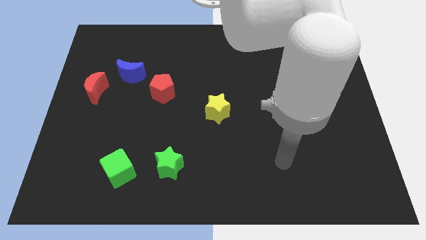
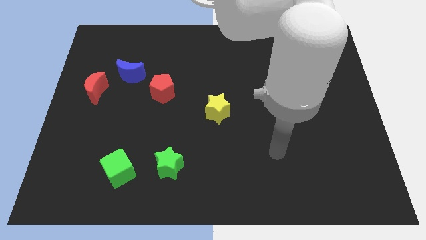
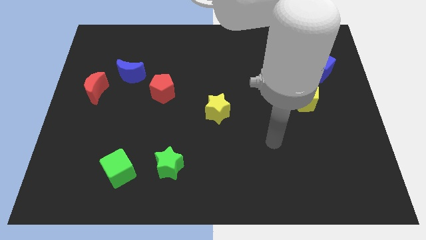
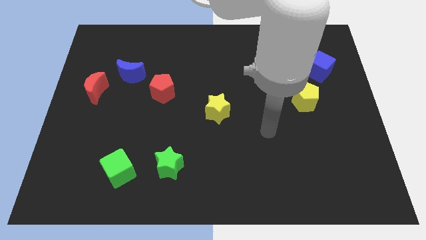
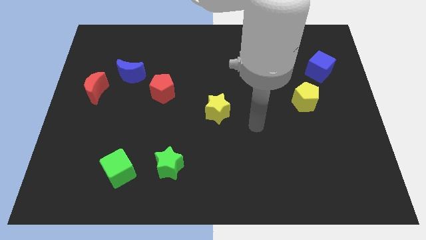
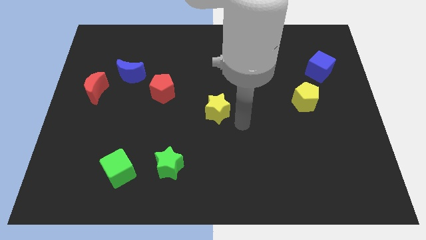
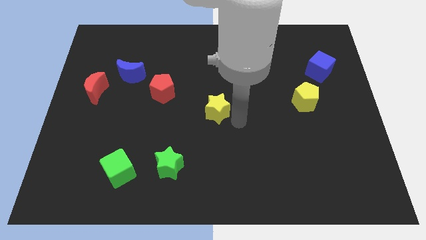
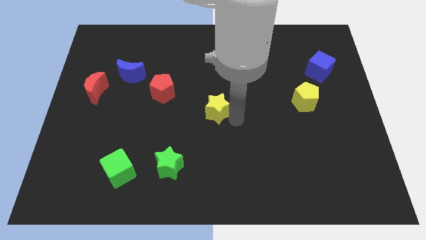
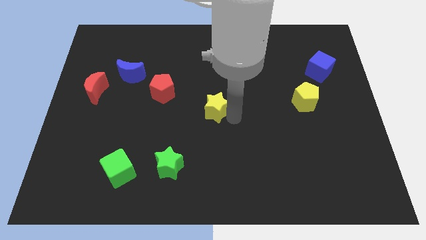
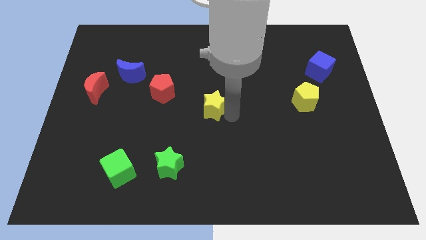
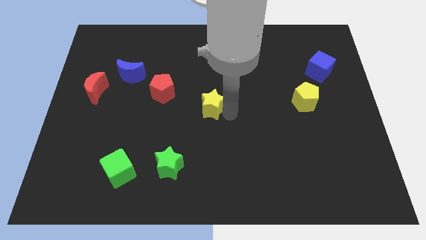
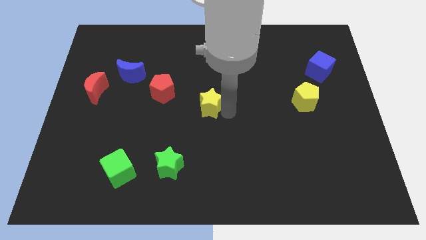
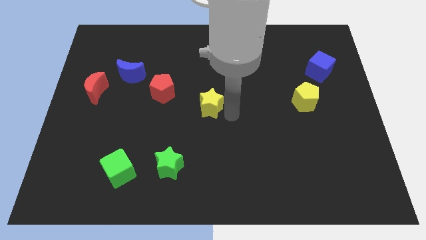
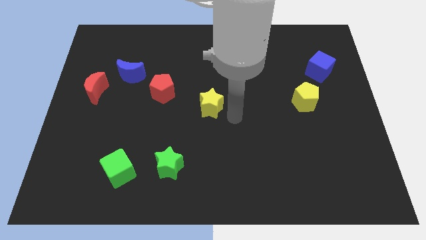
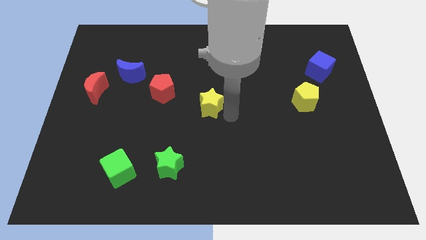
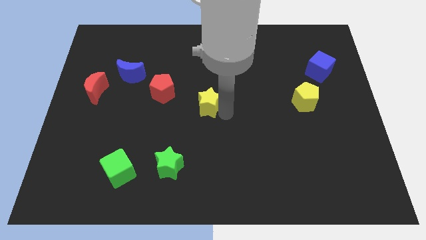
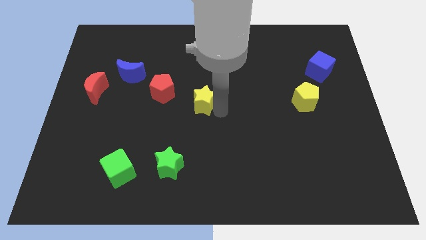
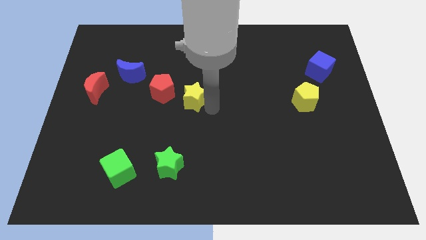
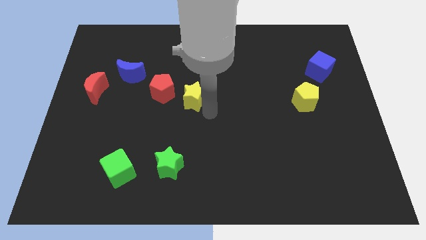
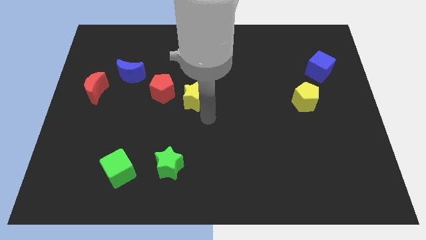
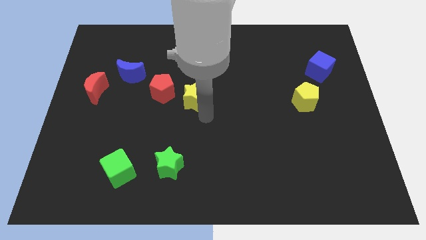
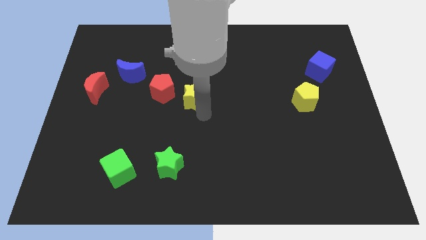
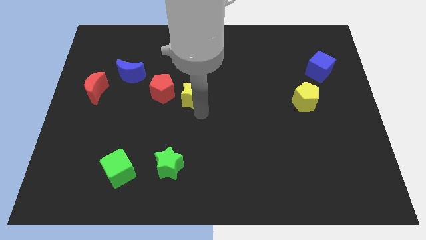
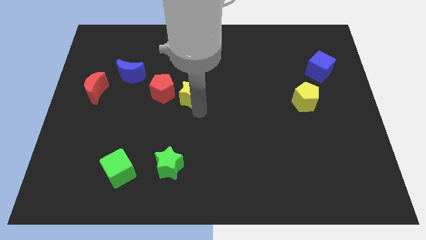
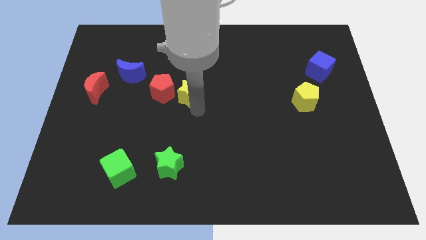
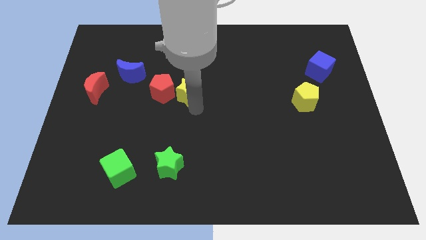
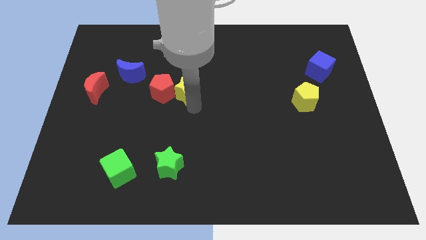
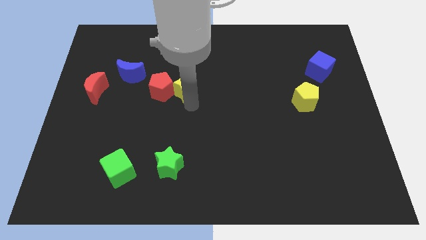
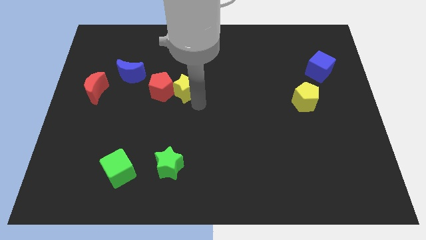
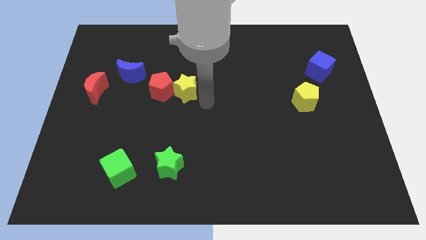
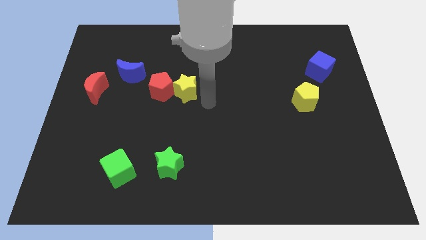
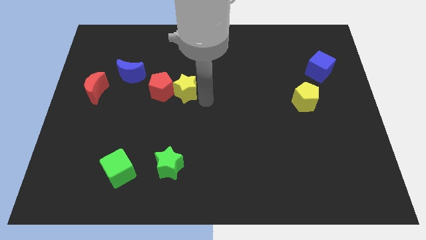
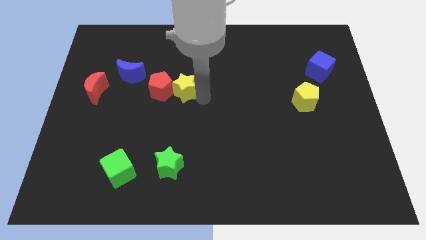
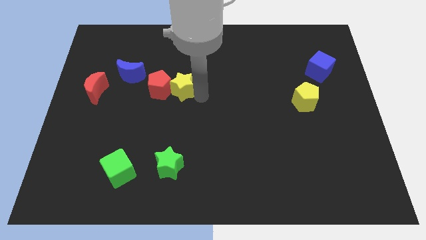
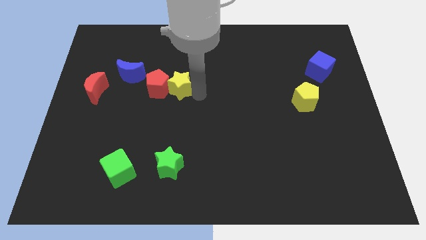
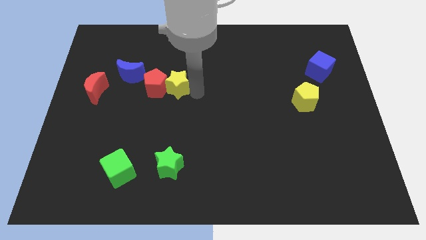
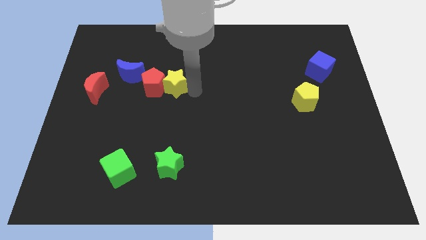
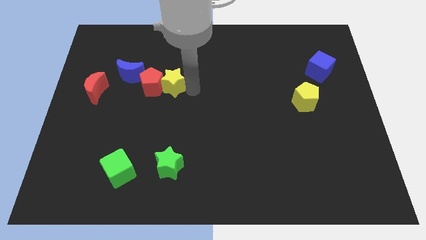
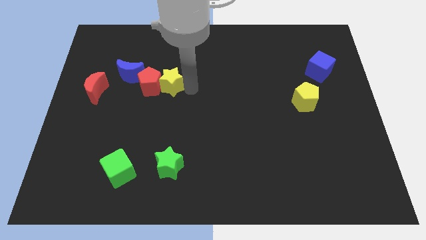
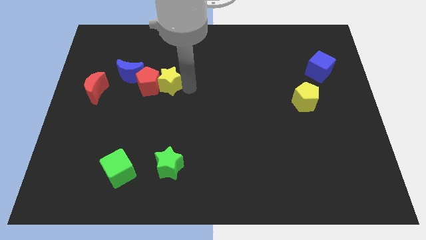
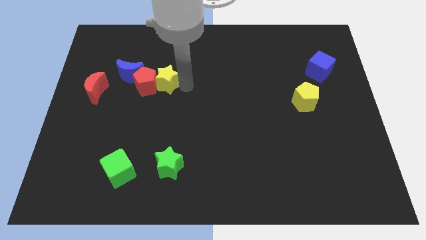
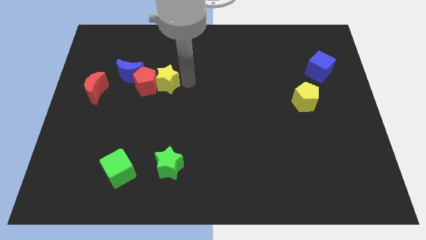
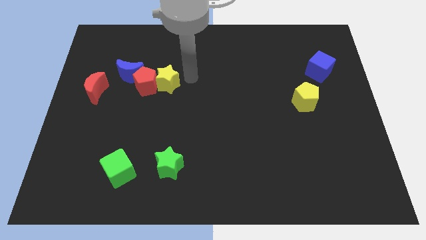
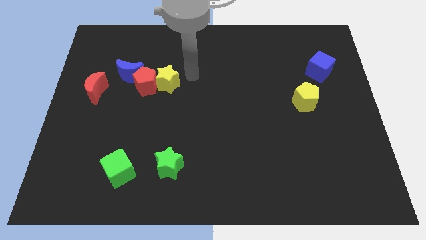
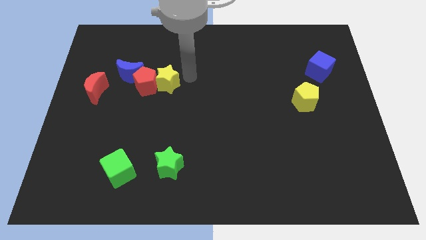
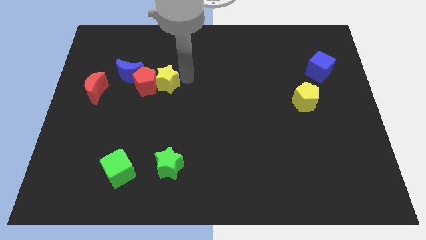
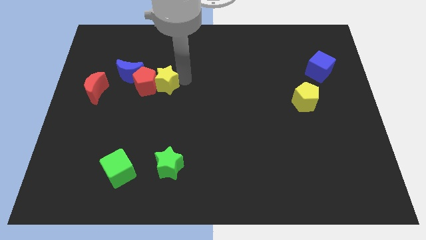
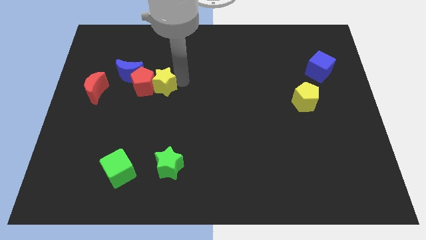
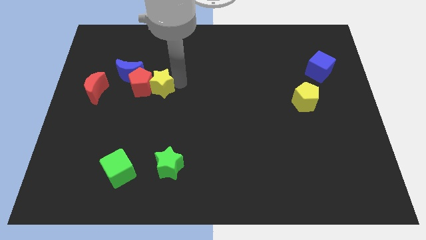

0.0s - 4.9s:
put the yellow star to the right of the red moon

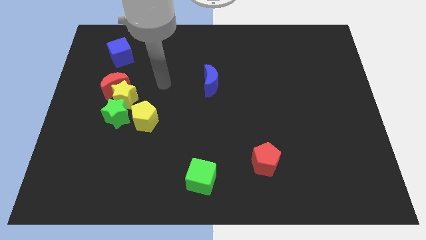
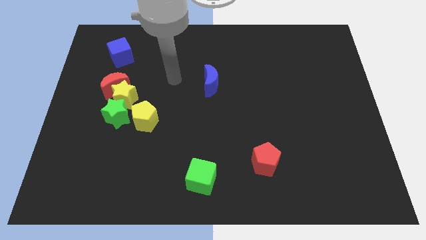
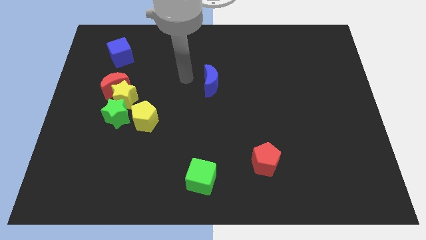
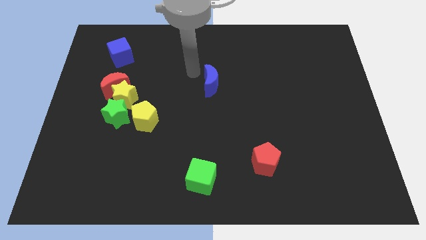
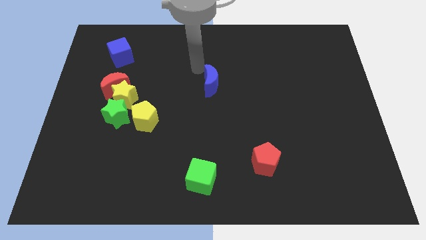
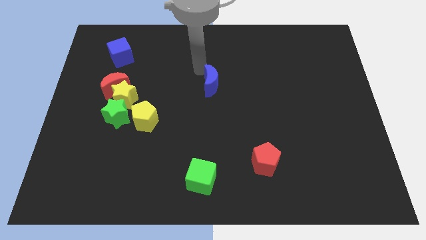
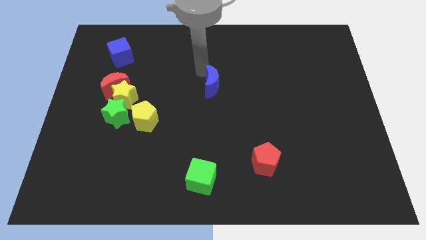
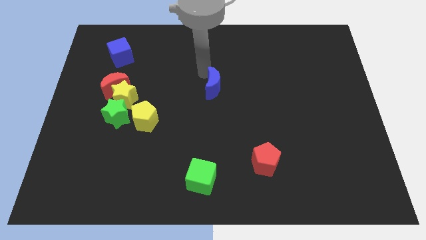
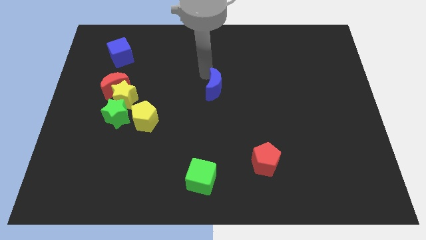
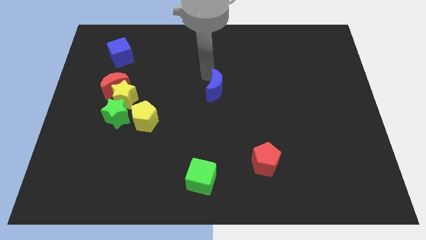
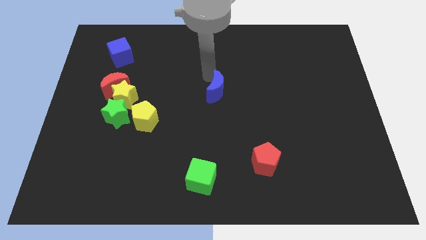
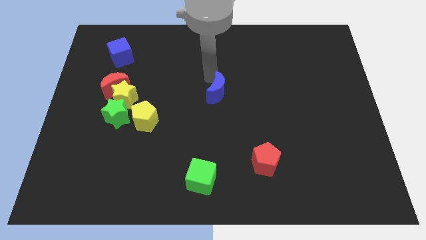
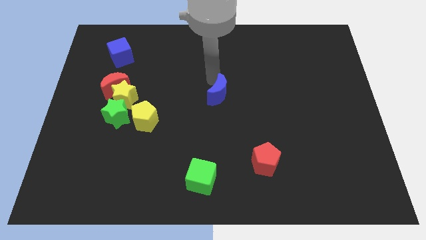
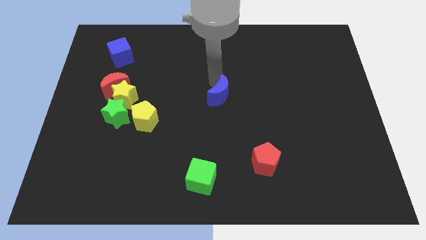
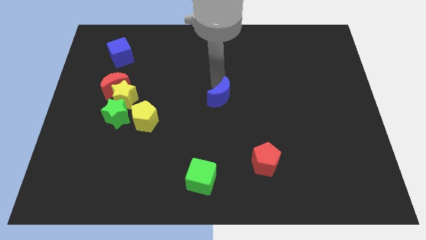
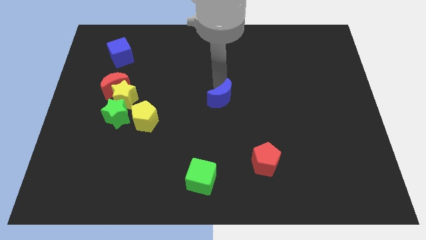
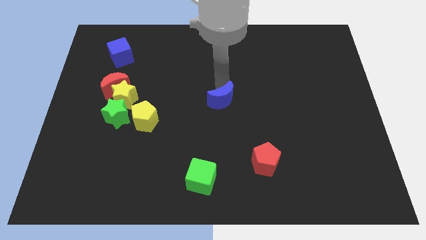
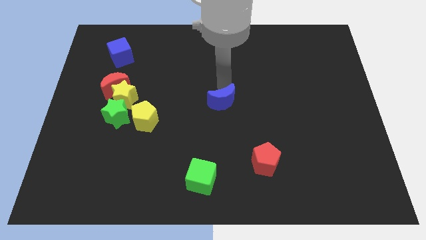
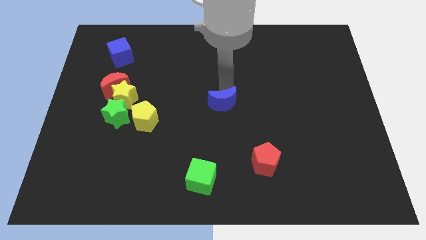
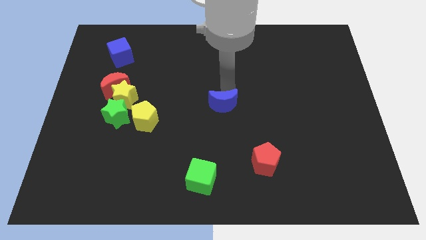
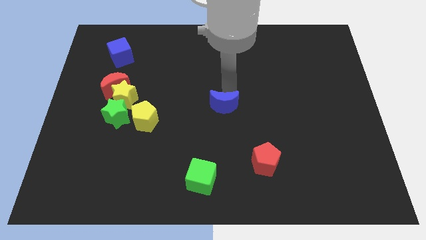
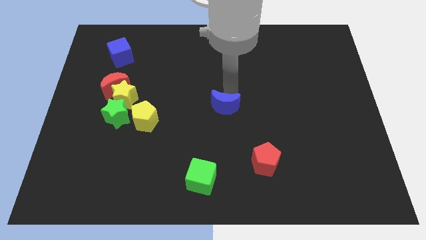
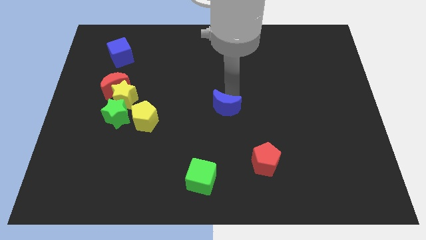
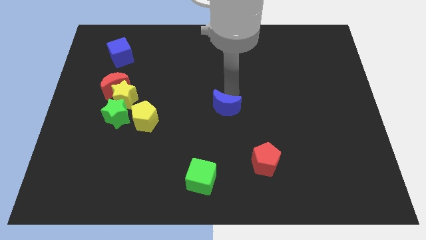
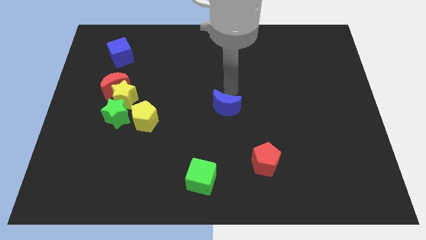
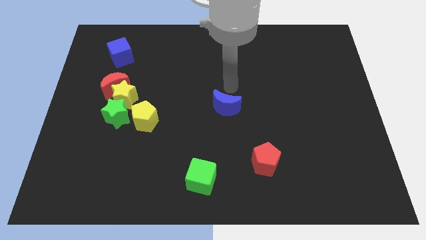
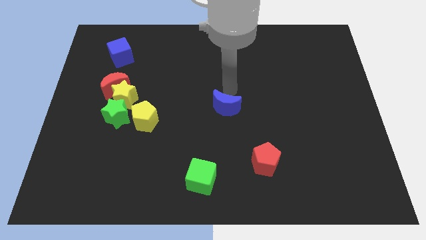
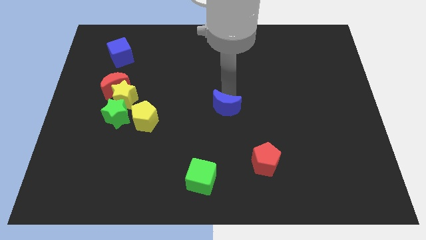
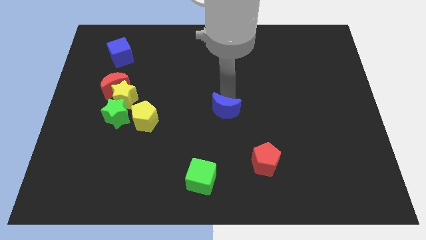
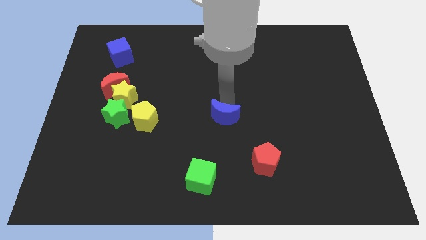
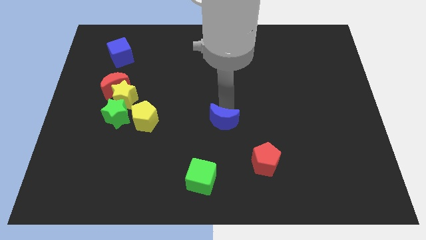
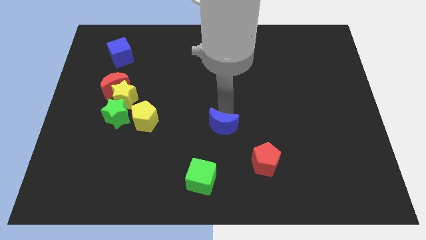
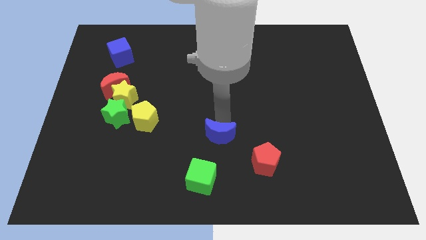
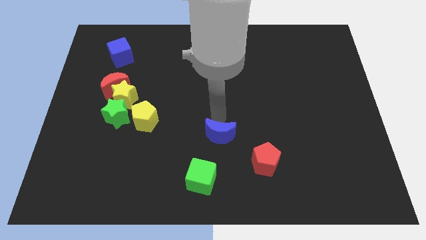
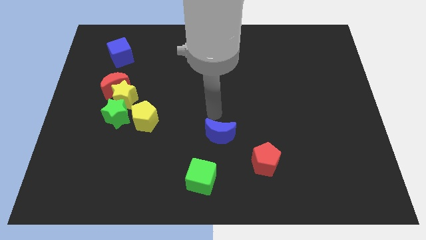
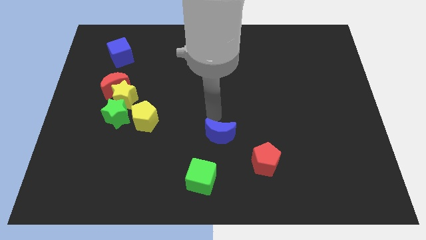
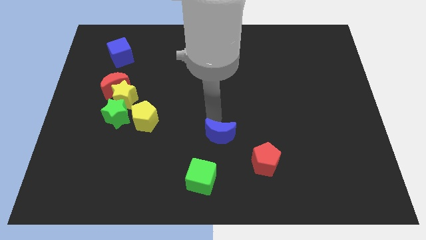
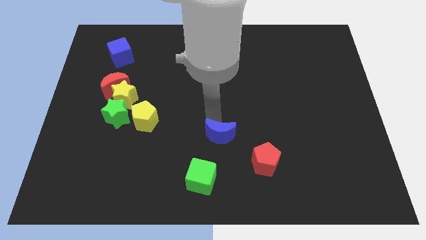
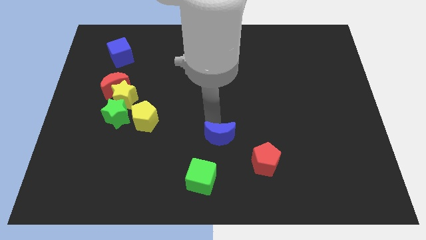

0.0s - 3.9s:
push the blue moon diagonally up and to the right of the green cube
